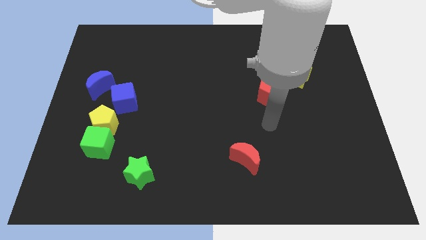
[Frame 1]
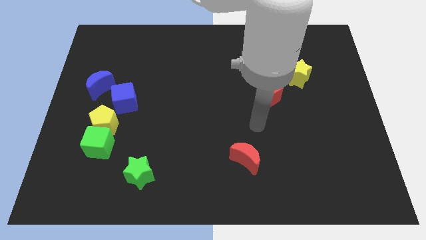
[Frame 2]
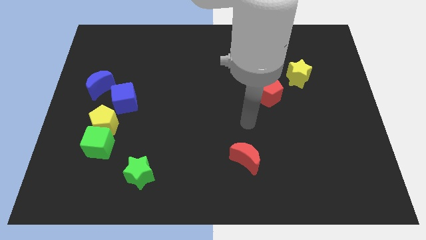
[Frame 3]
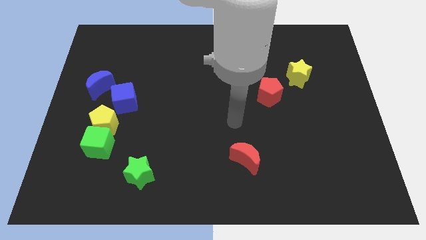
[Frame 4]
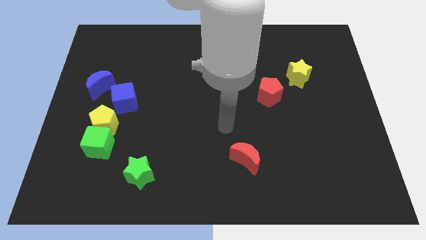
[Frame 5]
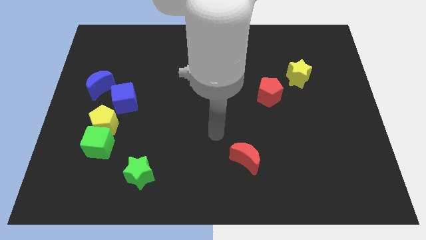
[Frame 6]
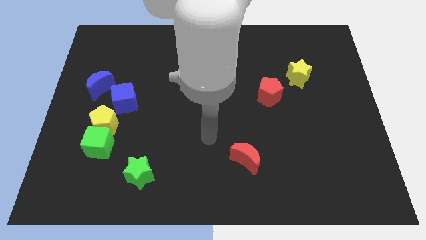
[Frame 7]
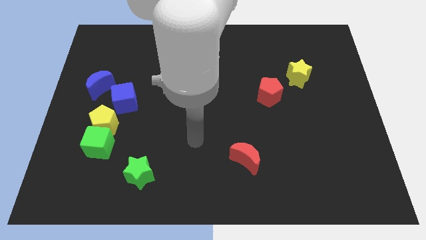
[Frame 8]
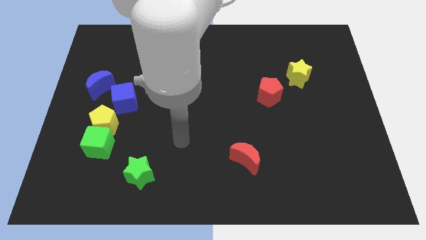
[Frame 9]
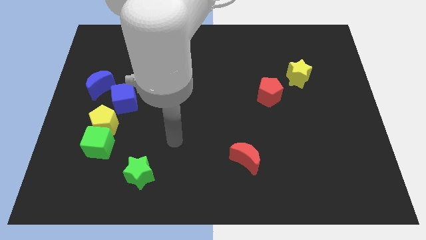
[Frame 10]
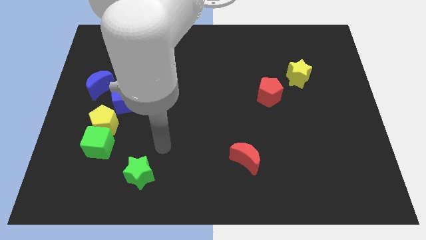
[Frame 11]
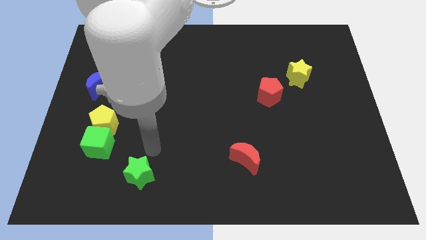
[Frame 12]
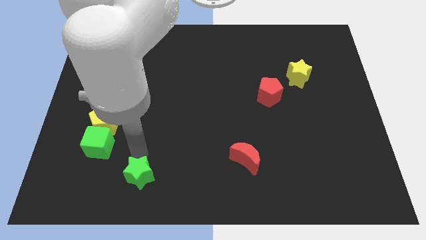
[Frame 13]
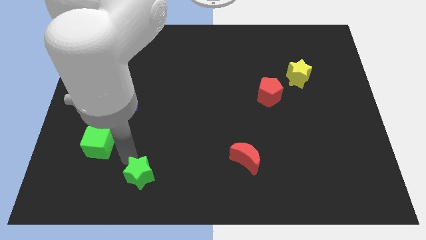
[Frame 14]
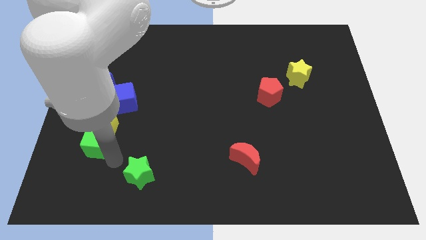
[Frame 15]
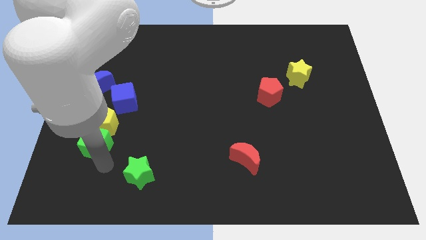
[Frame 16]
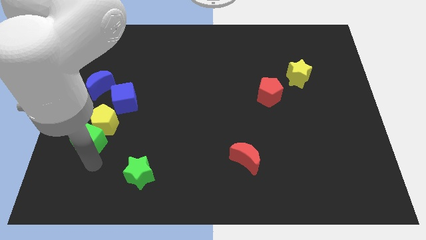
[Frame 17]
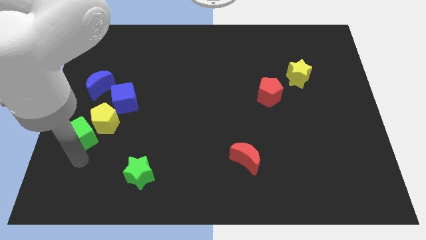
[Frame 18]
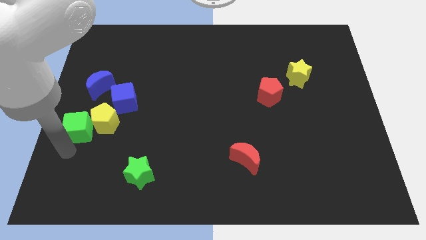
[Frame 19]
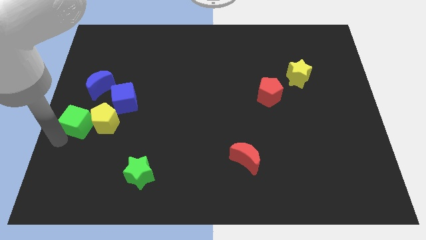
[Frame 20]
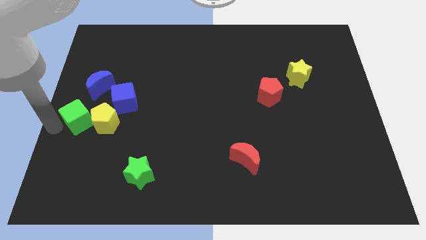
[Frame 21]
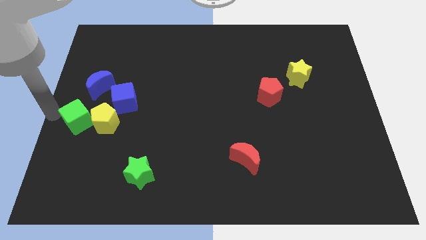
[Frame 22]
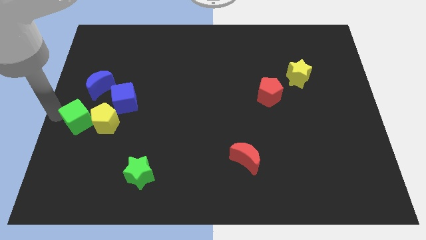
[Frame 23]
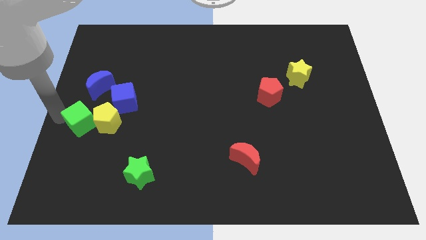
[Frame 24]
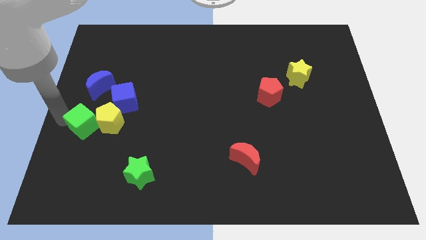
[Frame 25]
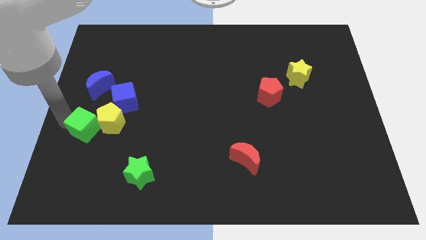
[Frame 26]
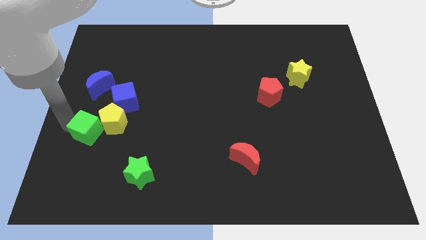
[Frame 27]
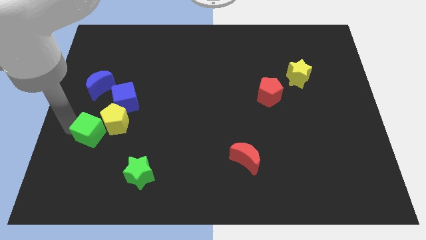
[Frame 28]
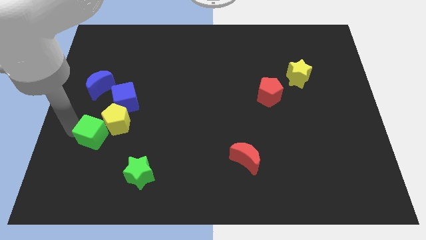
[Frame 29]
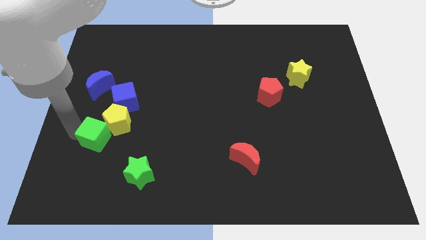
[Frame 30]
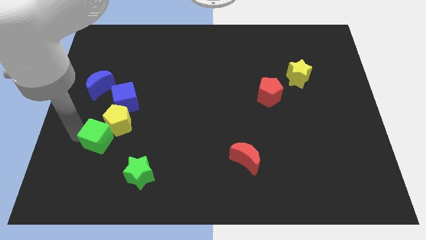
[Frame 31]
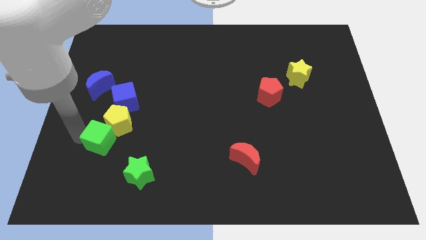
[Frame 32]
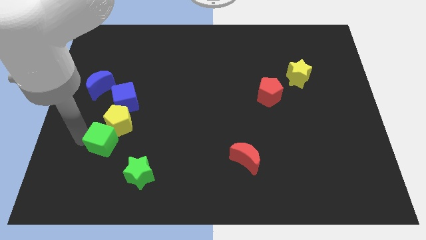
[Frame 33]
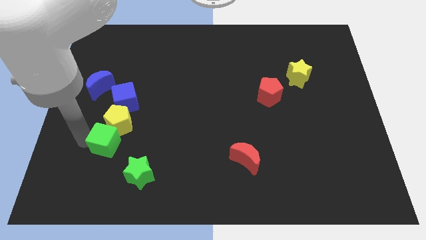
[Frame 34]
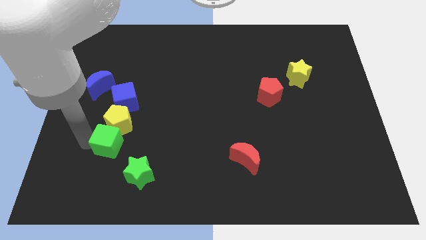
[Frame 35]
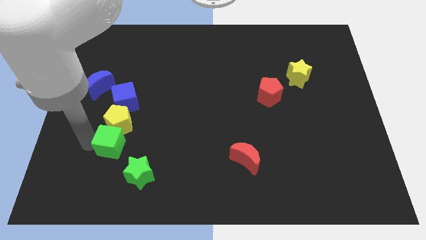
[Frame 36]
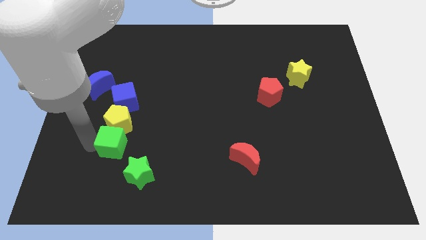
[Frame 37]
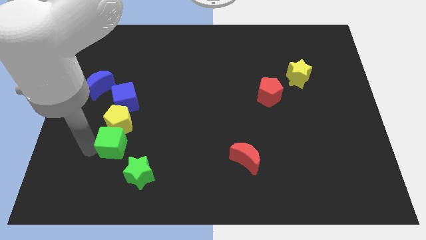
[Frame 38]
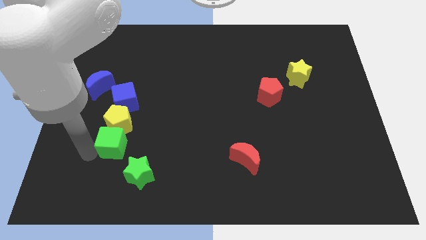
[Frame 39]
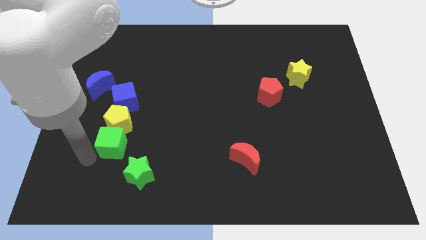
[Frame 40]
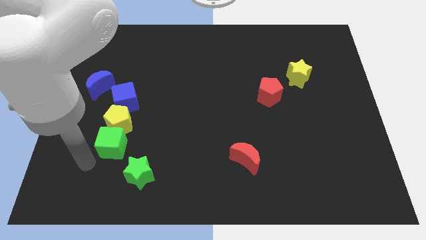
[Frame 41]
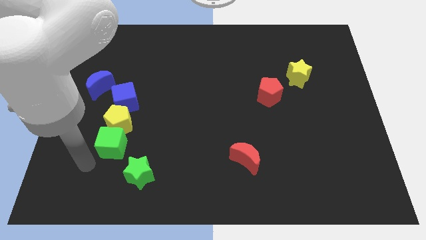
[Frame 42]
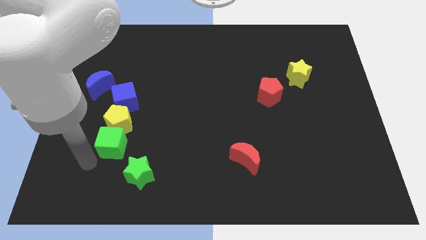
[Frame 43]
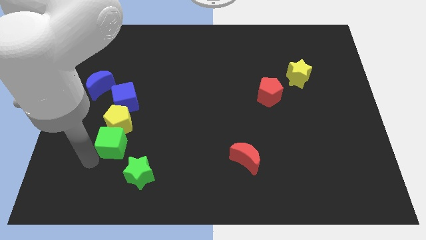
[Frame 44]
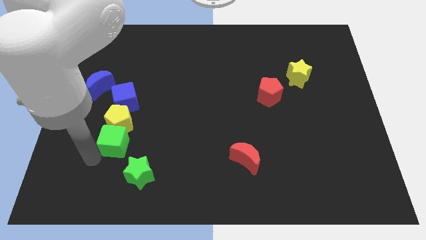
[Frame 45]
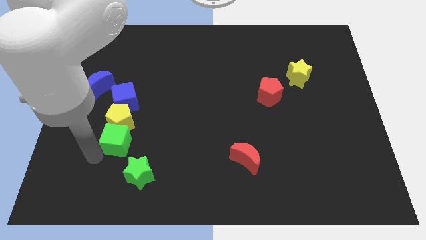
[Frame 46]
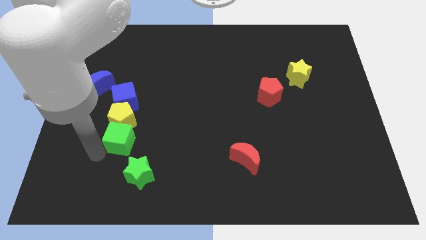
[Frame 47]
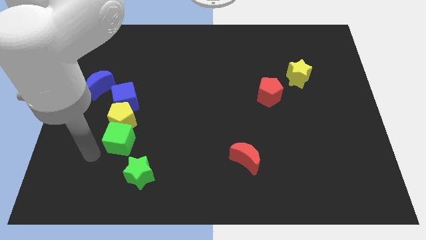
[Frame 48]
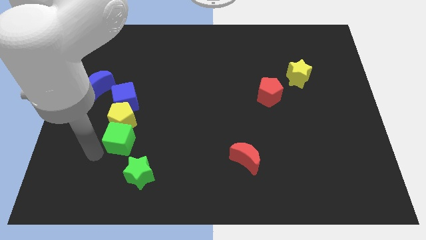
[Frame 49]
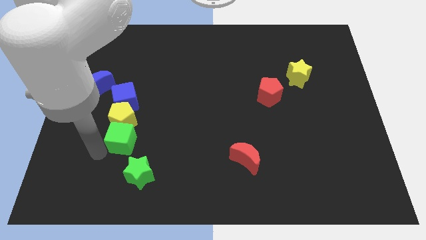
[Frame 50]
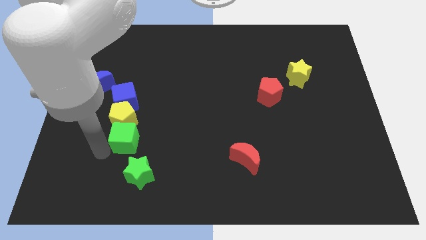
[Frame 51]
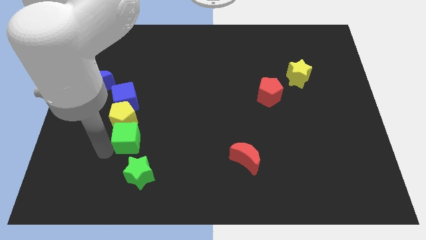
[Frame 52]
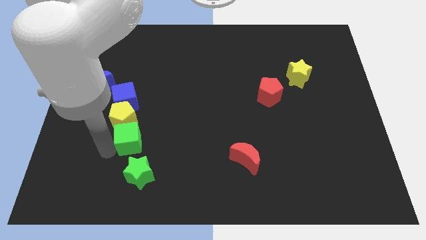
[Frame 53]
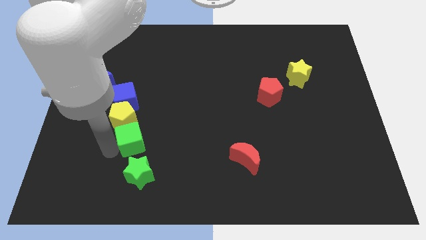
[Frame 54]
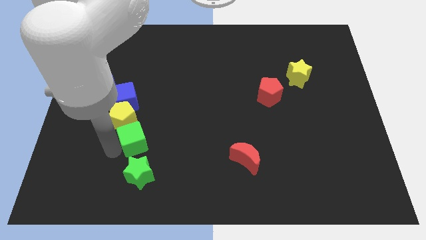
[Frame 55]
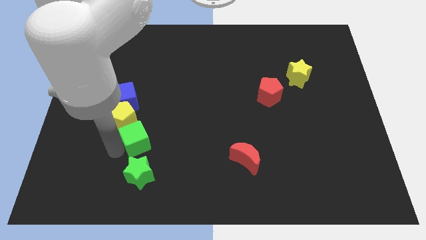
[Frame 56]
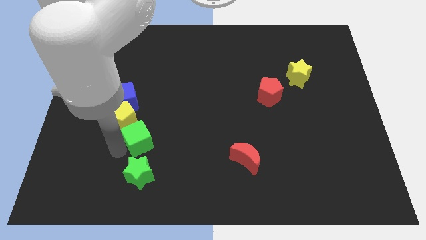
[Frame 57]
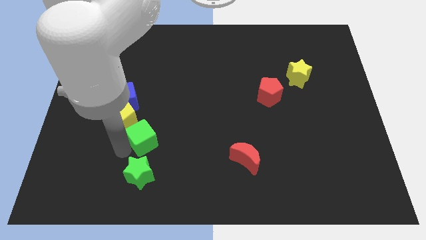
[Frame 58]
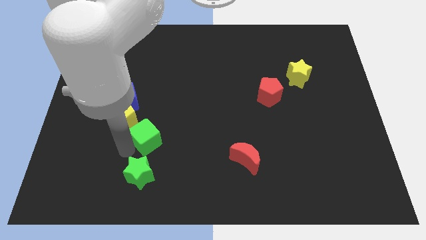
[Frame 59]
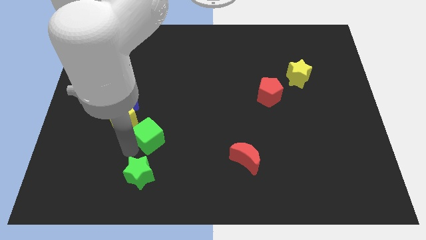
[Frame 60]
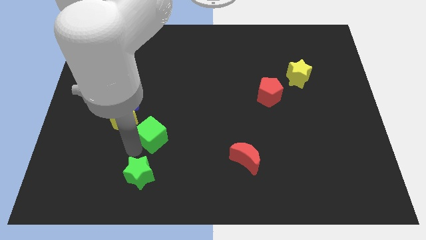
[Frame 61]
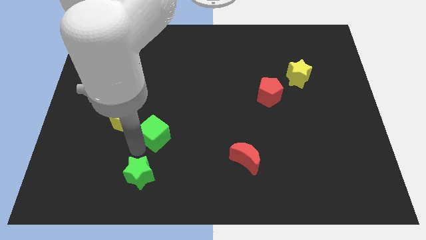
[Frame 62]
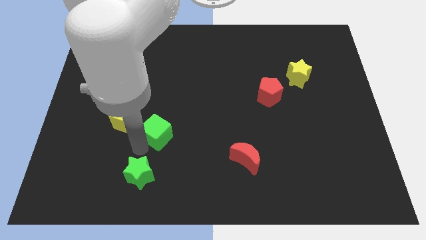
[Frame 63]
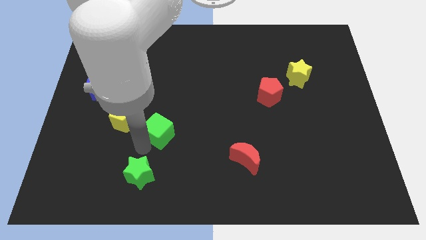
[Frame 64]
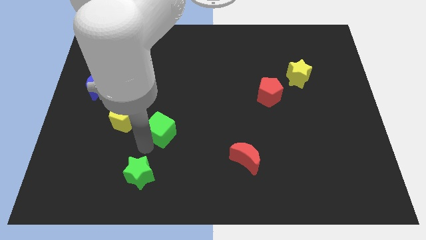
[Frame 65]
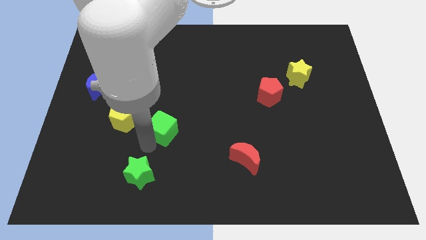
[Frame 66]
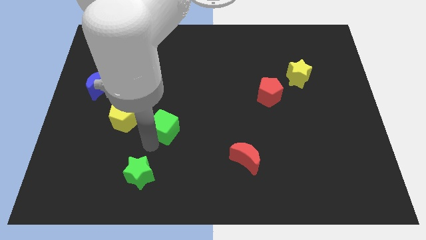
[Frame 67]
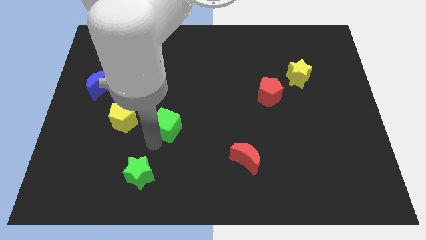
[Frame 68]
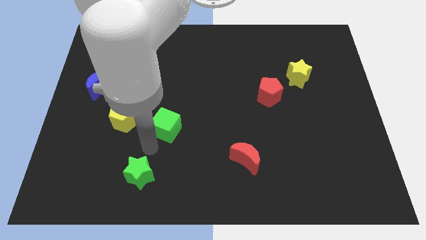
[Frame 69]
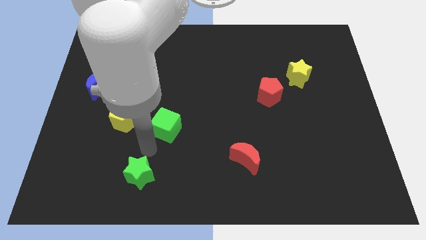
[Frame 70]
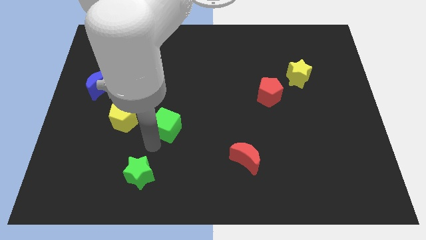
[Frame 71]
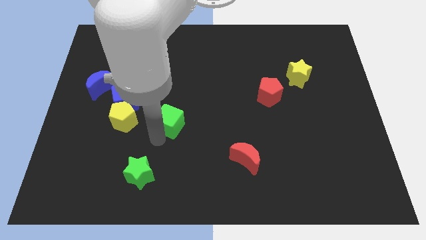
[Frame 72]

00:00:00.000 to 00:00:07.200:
push the green cube to the middle of the board
